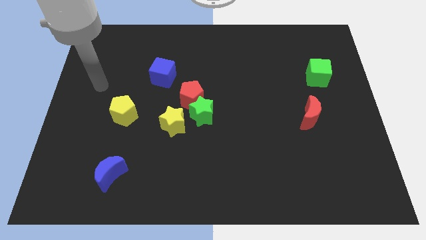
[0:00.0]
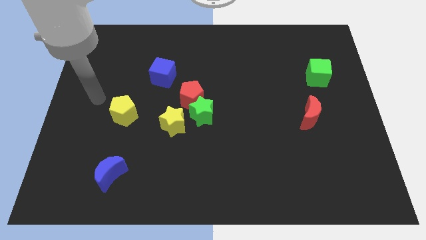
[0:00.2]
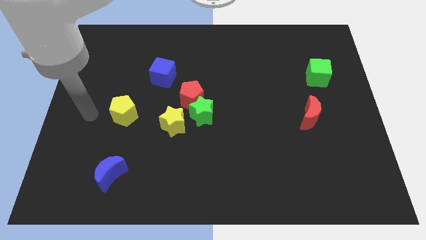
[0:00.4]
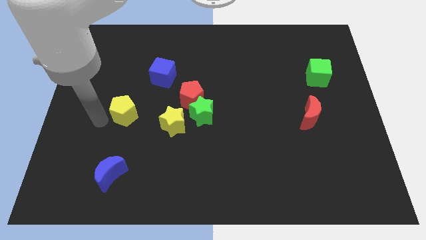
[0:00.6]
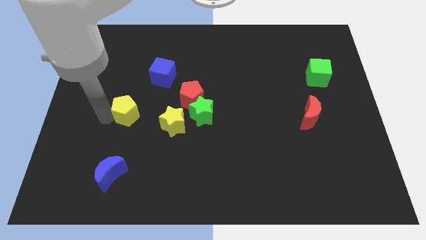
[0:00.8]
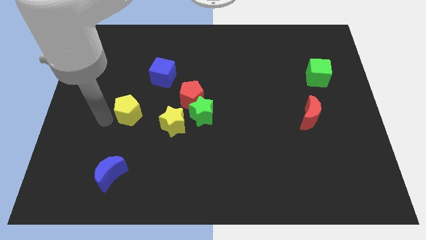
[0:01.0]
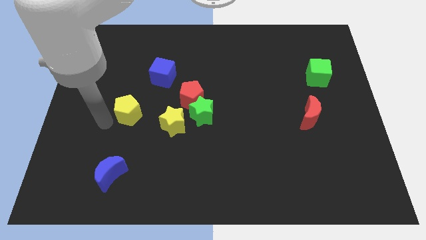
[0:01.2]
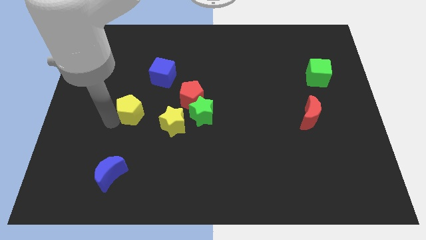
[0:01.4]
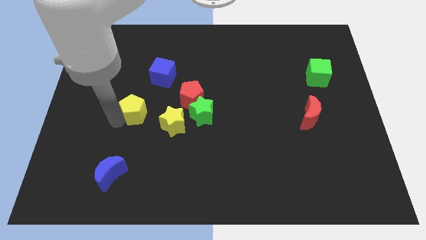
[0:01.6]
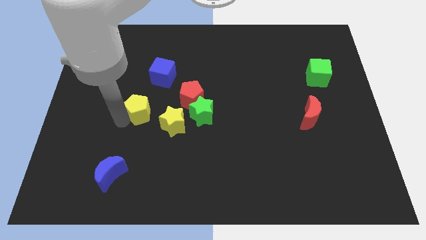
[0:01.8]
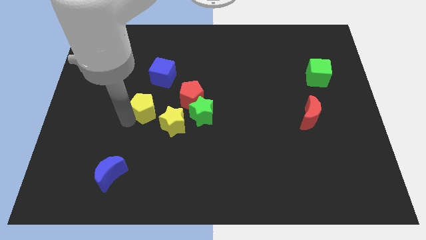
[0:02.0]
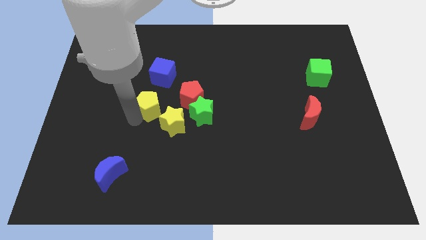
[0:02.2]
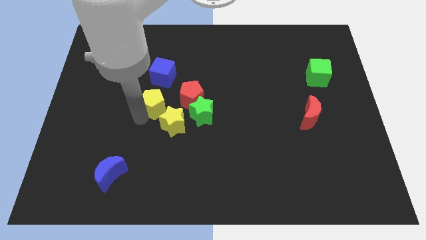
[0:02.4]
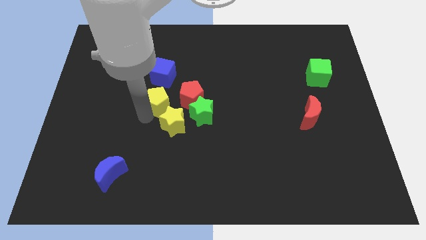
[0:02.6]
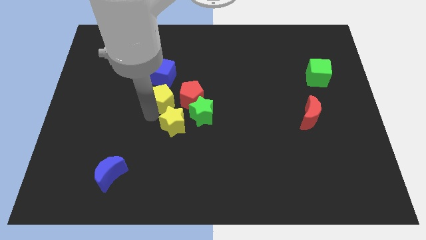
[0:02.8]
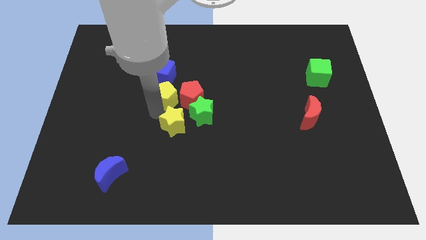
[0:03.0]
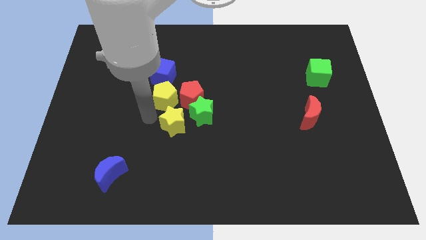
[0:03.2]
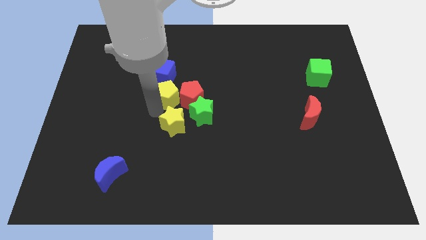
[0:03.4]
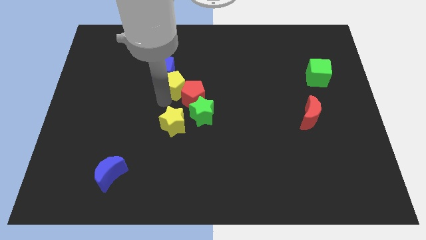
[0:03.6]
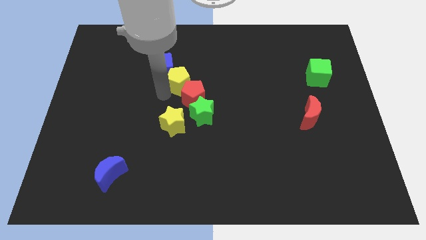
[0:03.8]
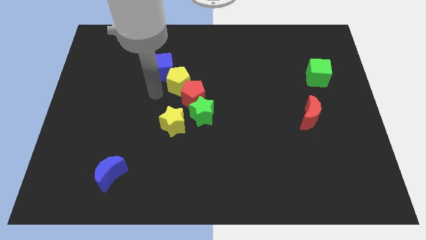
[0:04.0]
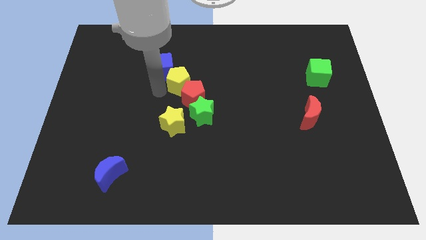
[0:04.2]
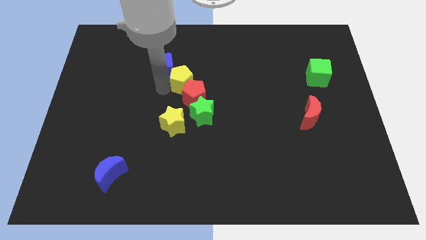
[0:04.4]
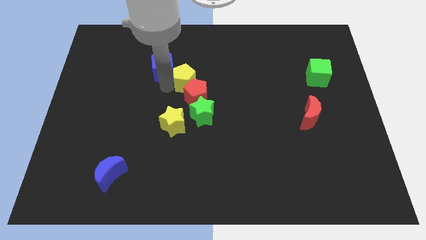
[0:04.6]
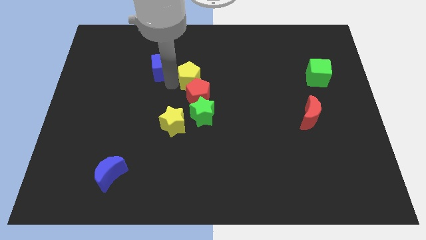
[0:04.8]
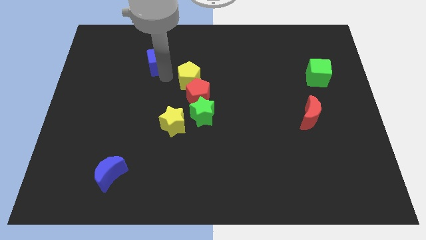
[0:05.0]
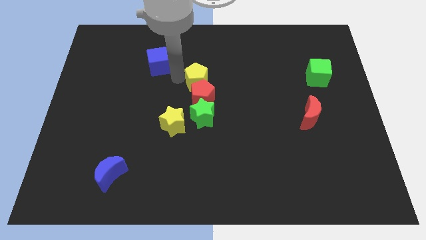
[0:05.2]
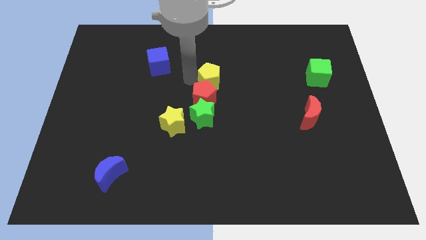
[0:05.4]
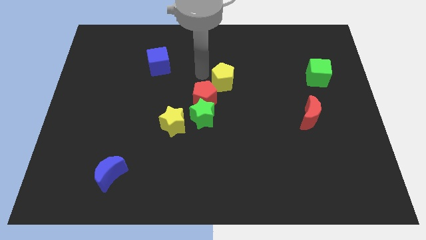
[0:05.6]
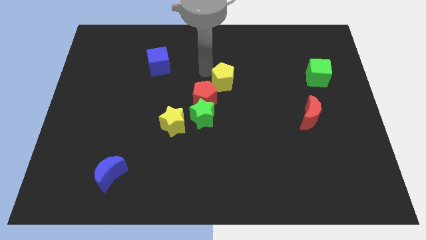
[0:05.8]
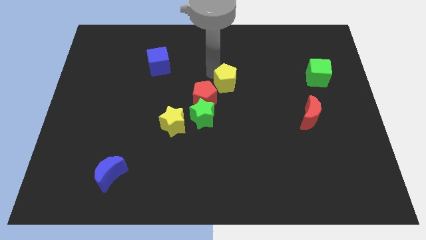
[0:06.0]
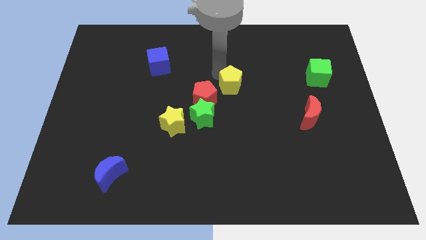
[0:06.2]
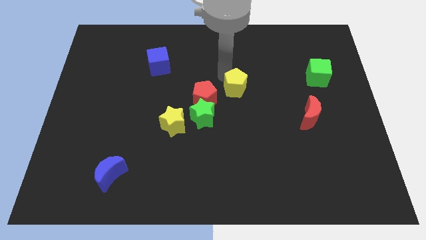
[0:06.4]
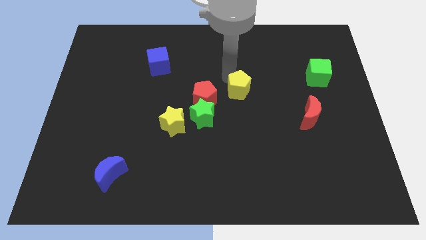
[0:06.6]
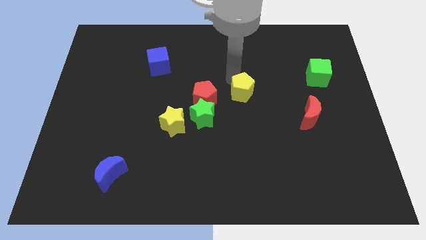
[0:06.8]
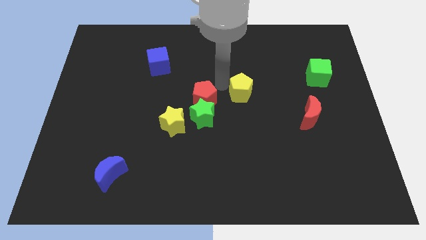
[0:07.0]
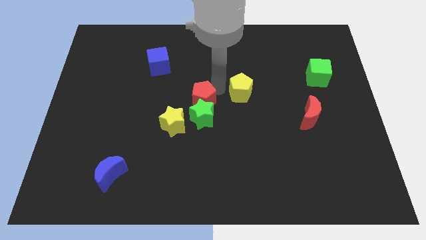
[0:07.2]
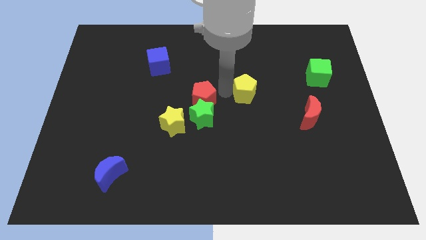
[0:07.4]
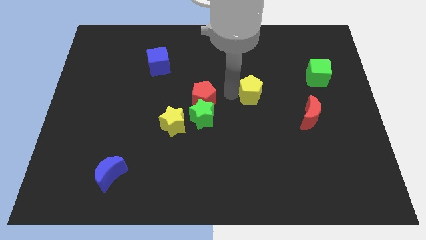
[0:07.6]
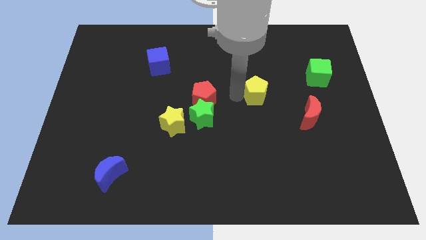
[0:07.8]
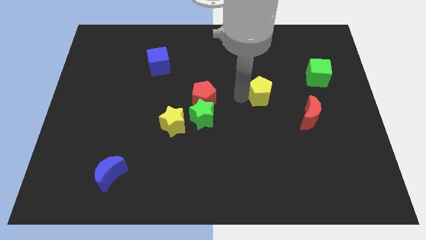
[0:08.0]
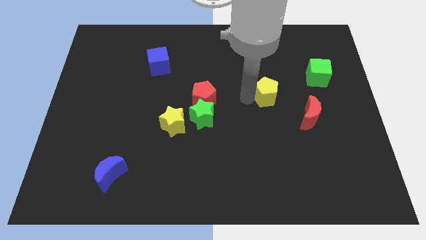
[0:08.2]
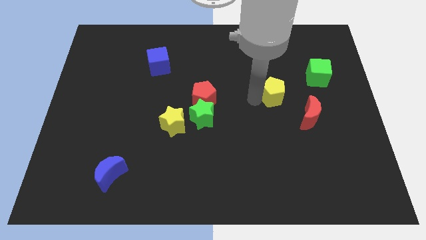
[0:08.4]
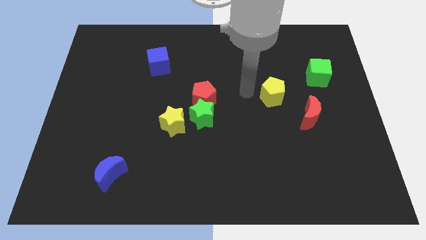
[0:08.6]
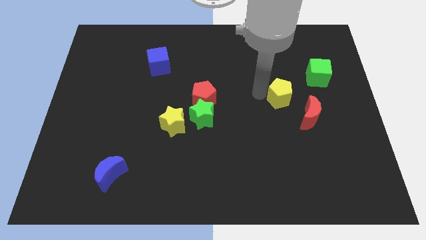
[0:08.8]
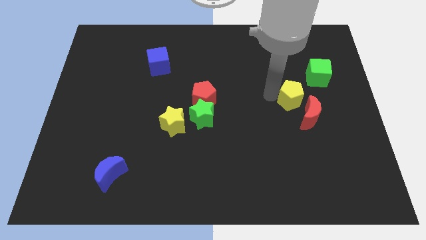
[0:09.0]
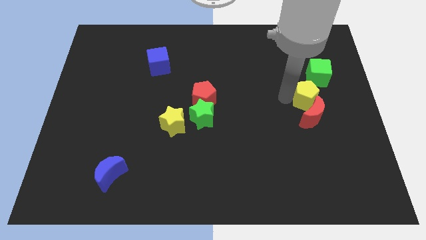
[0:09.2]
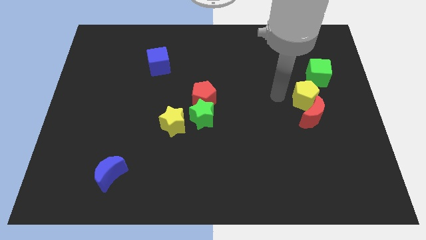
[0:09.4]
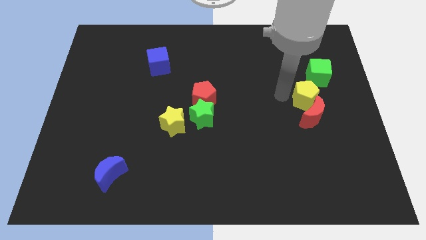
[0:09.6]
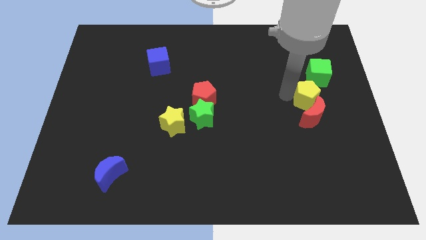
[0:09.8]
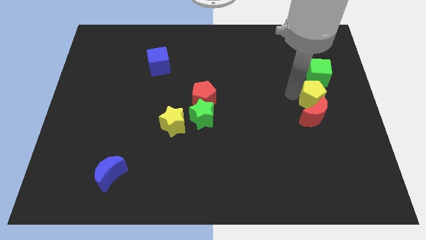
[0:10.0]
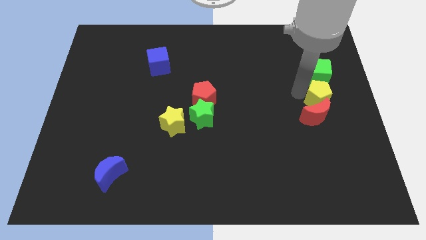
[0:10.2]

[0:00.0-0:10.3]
move the yellow pentagon to the right side

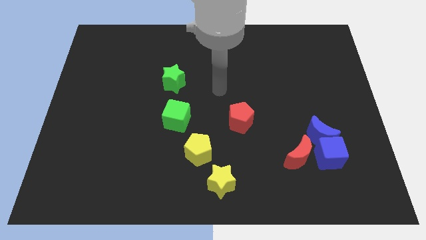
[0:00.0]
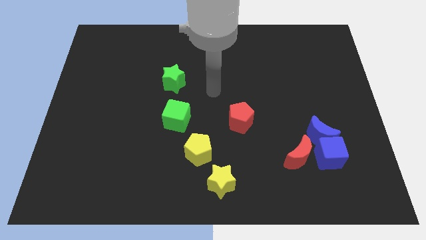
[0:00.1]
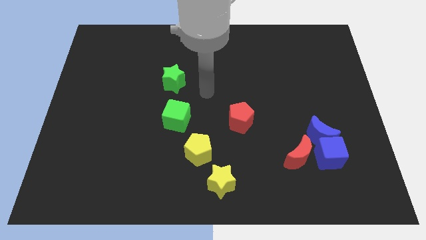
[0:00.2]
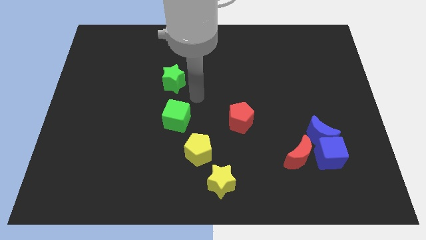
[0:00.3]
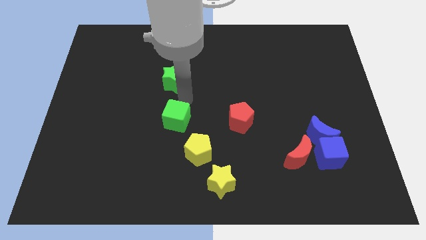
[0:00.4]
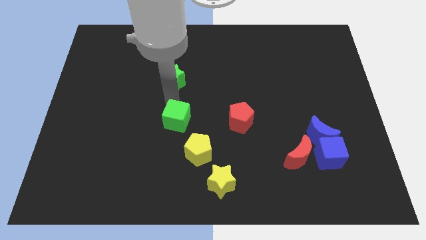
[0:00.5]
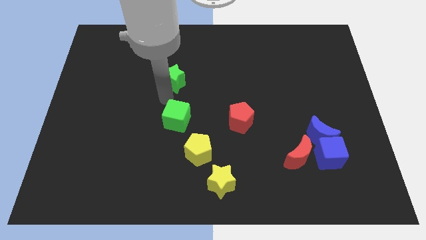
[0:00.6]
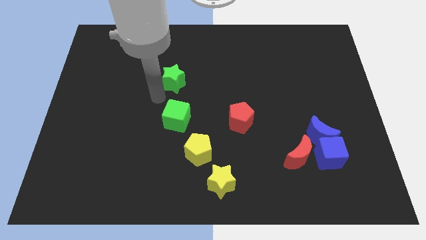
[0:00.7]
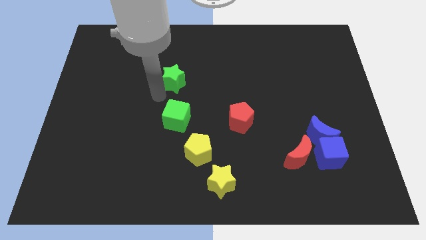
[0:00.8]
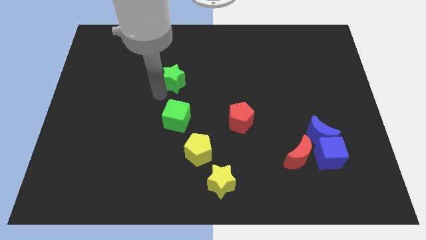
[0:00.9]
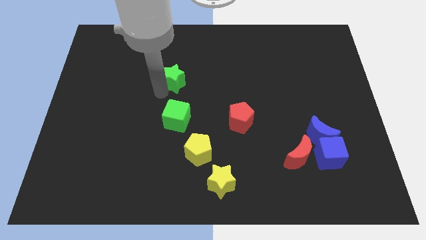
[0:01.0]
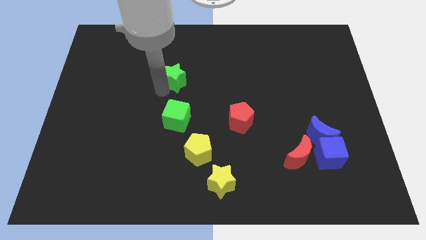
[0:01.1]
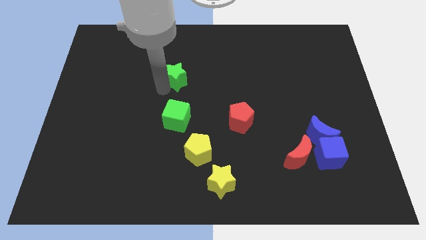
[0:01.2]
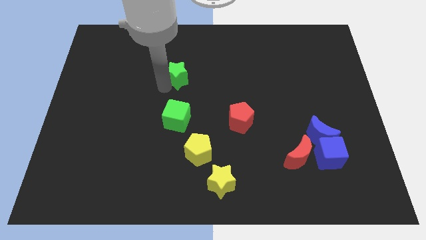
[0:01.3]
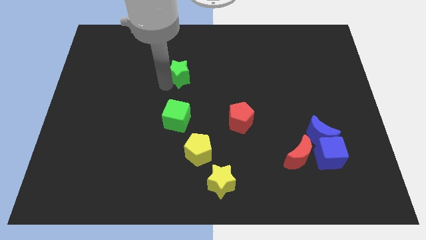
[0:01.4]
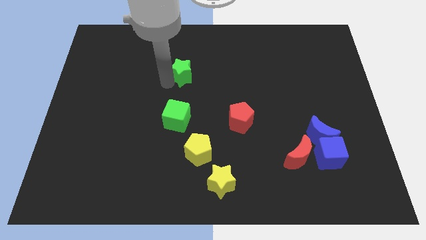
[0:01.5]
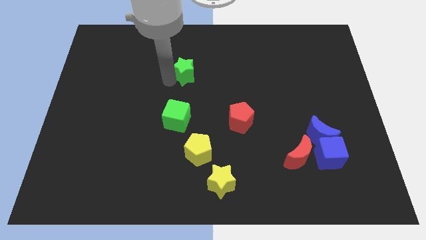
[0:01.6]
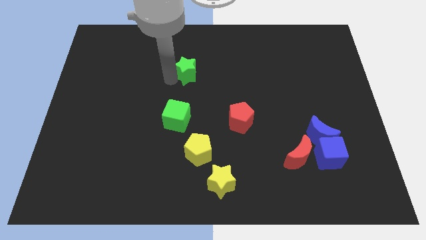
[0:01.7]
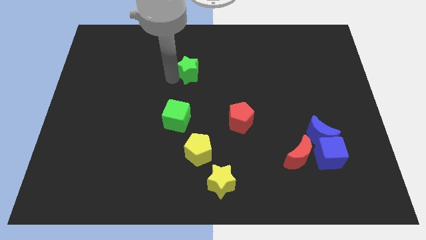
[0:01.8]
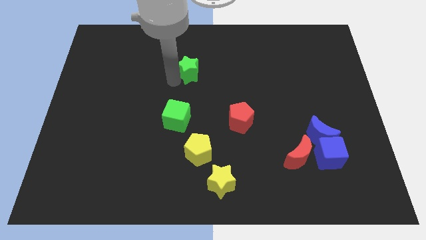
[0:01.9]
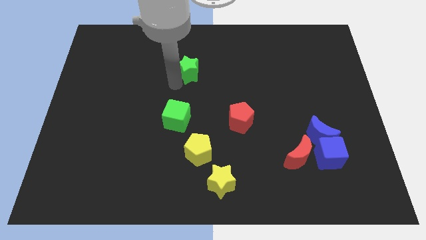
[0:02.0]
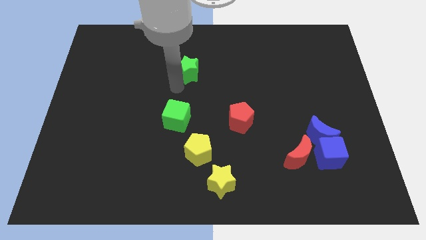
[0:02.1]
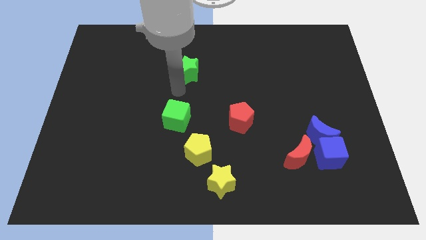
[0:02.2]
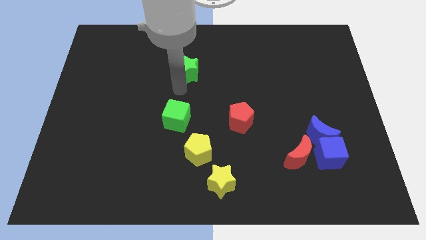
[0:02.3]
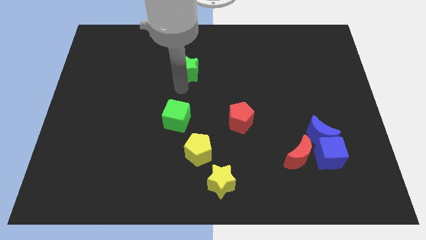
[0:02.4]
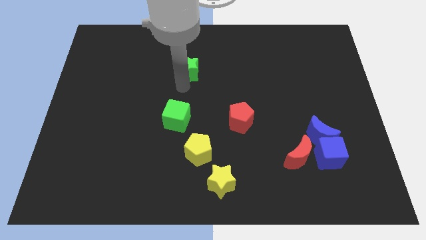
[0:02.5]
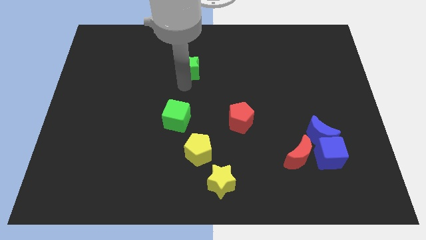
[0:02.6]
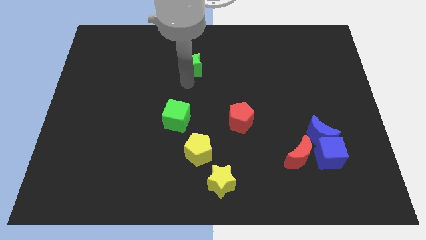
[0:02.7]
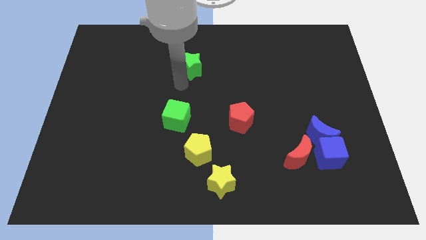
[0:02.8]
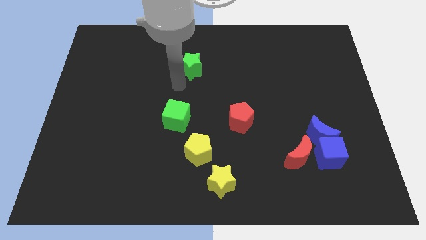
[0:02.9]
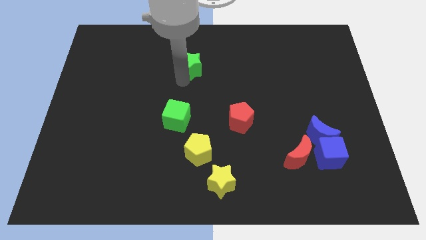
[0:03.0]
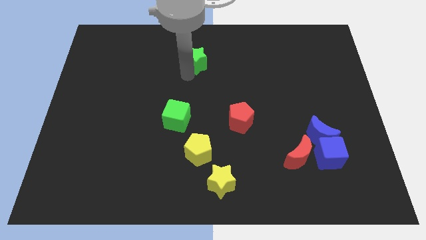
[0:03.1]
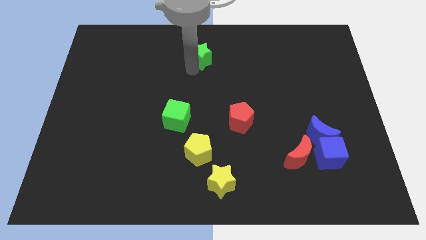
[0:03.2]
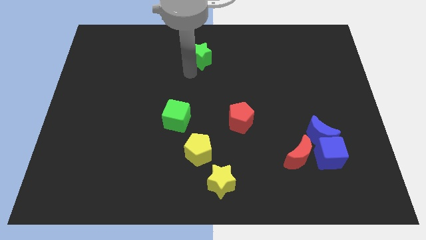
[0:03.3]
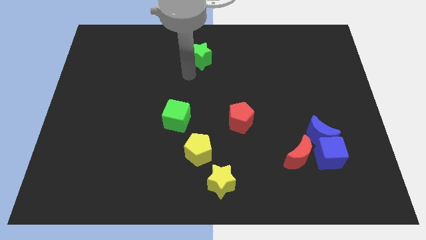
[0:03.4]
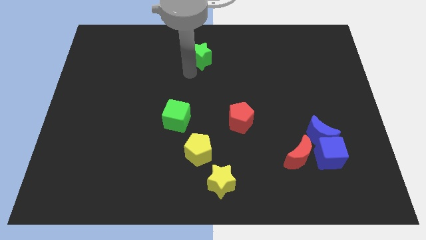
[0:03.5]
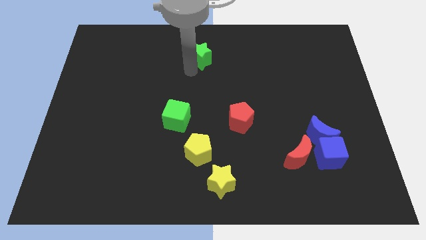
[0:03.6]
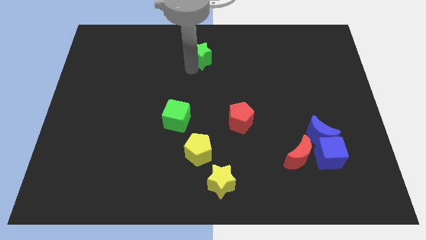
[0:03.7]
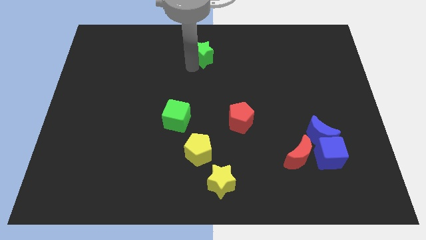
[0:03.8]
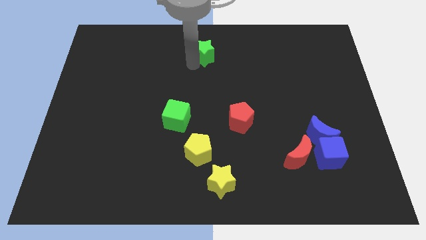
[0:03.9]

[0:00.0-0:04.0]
slide the green star to the top side
